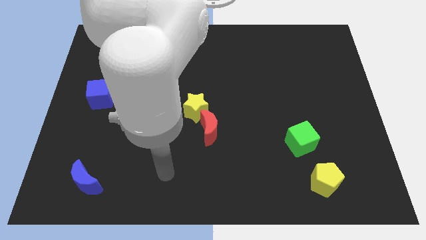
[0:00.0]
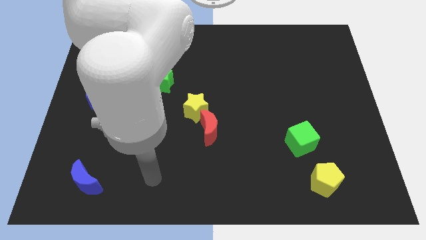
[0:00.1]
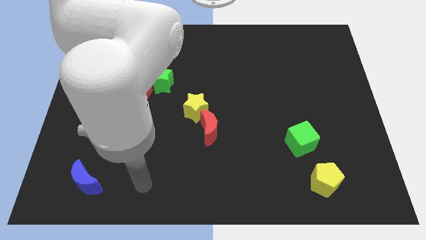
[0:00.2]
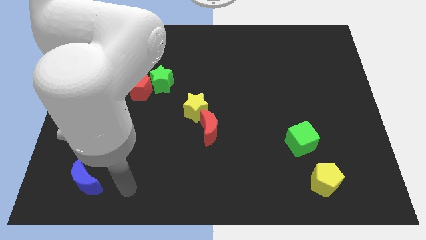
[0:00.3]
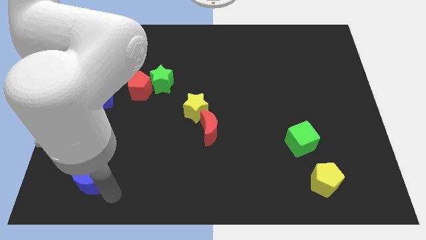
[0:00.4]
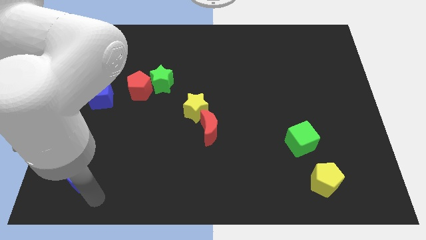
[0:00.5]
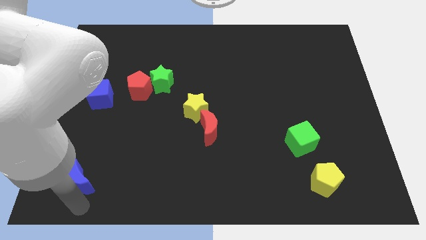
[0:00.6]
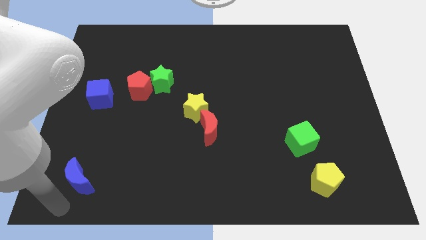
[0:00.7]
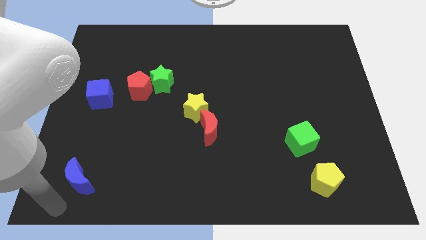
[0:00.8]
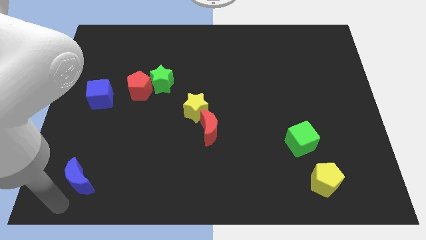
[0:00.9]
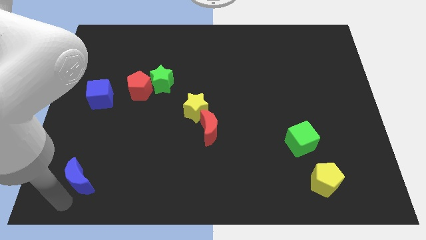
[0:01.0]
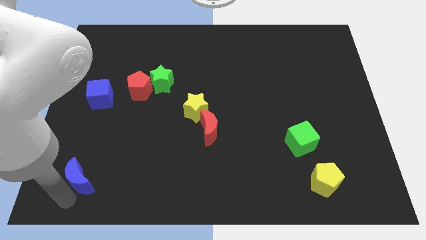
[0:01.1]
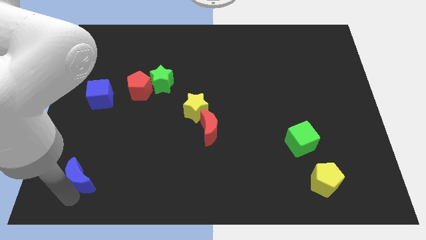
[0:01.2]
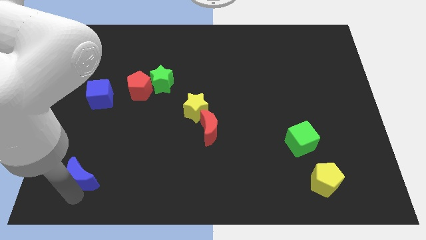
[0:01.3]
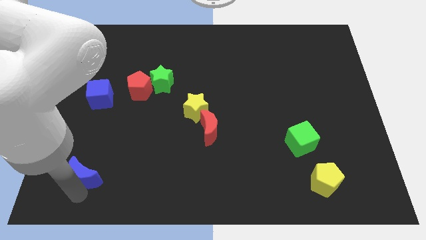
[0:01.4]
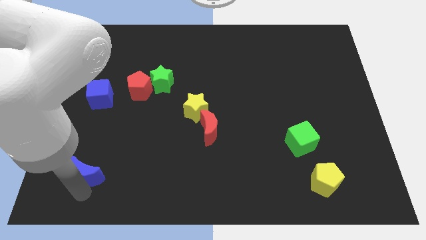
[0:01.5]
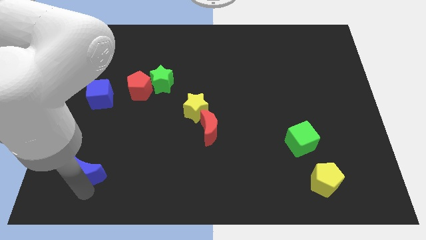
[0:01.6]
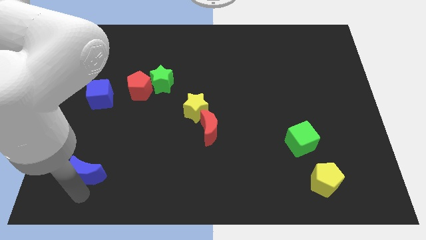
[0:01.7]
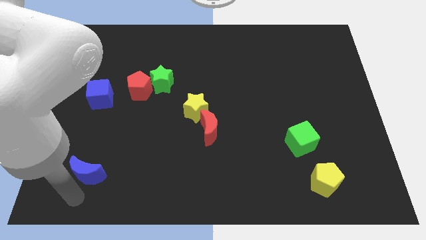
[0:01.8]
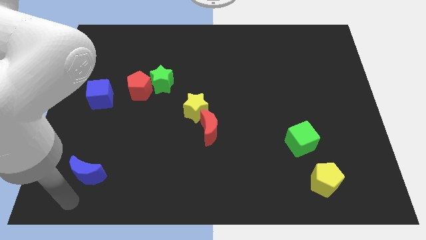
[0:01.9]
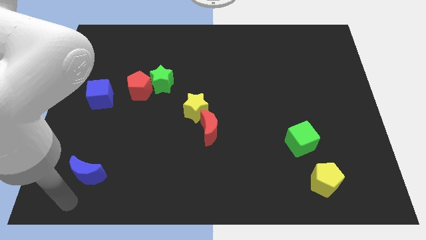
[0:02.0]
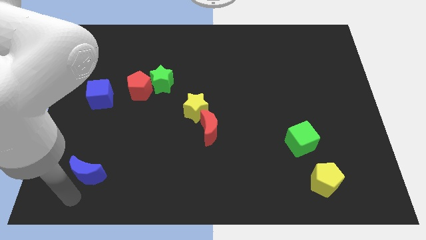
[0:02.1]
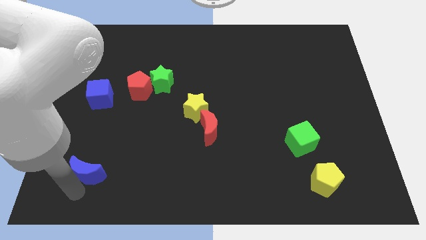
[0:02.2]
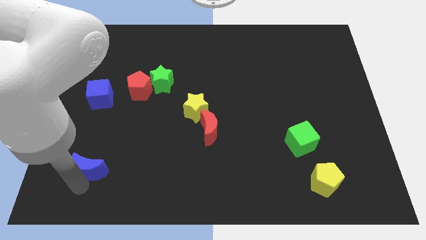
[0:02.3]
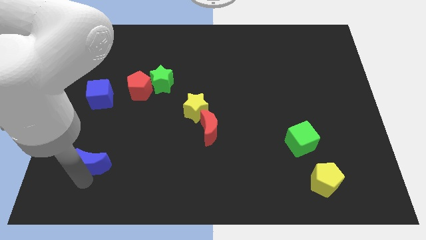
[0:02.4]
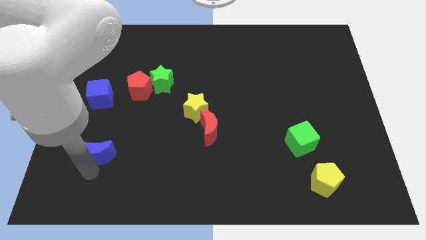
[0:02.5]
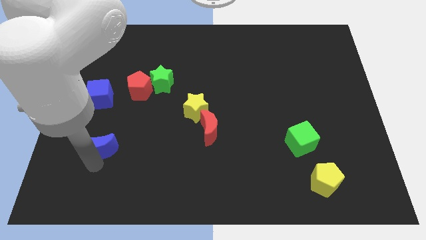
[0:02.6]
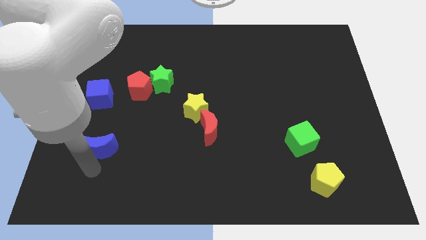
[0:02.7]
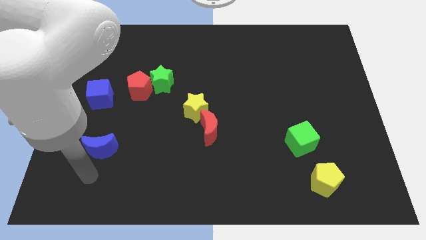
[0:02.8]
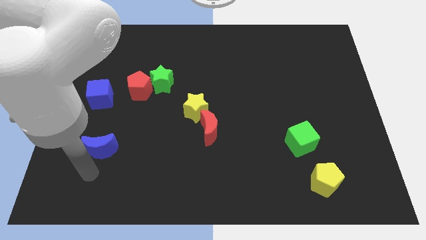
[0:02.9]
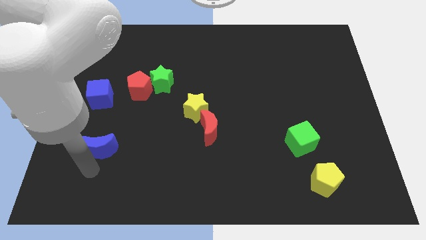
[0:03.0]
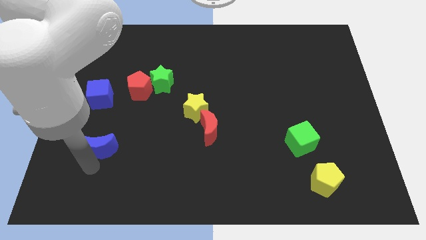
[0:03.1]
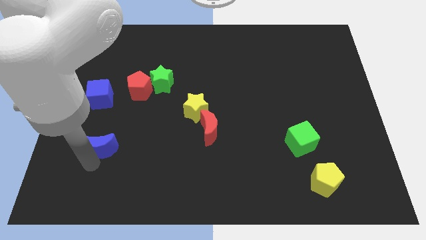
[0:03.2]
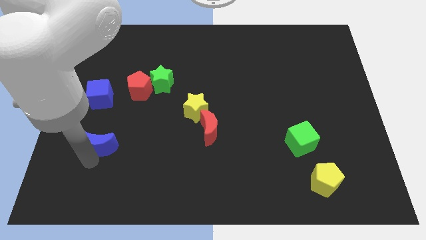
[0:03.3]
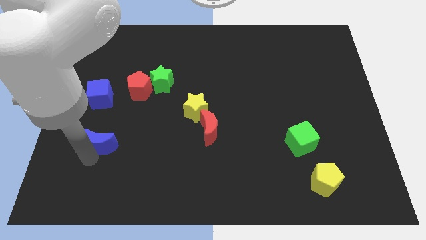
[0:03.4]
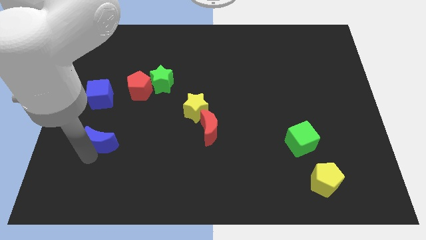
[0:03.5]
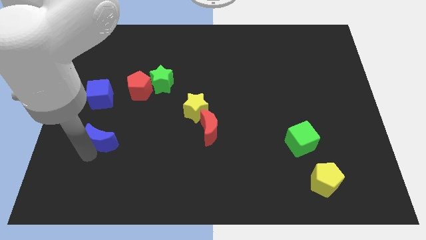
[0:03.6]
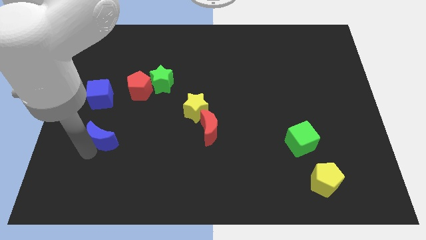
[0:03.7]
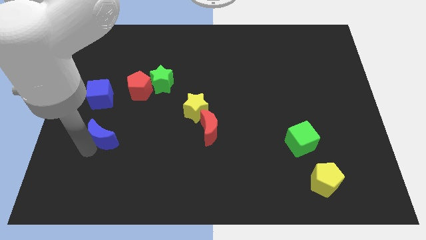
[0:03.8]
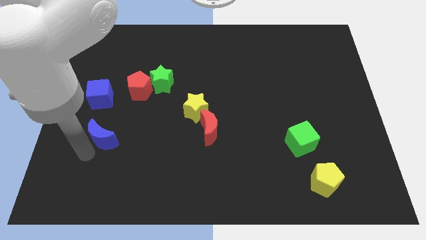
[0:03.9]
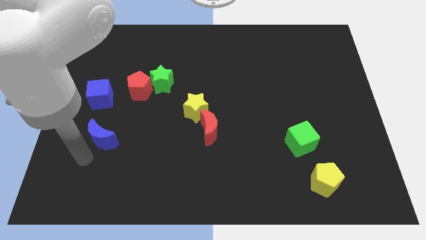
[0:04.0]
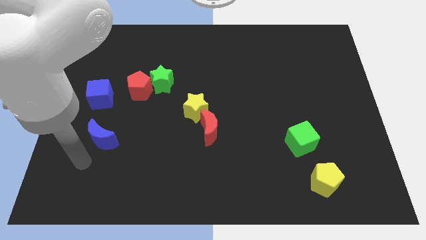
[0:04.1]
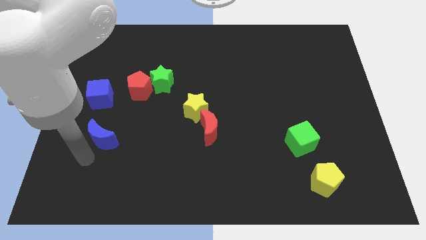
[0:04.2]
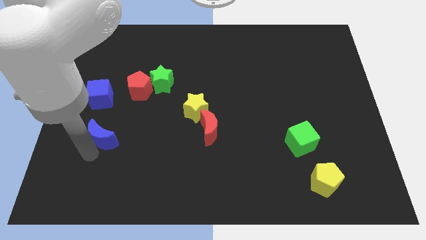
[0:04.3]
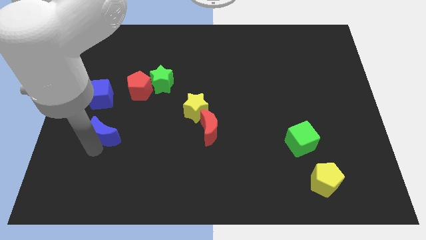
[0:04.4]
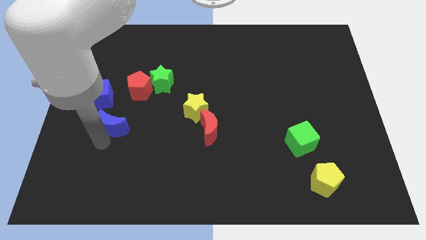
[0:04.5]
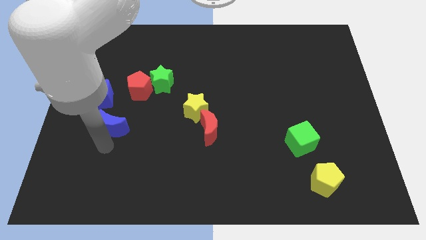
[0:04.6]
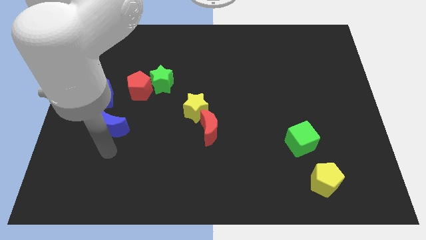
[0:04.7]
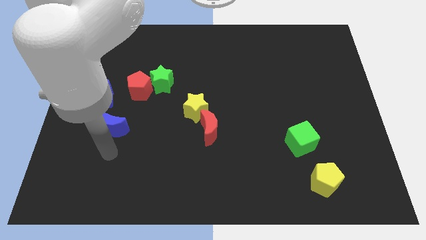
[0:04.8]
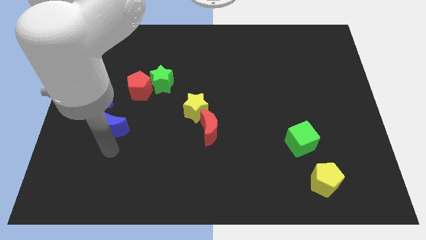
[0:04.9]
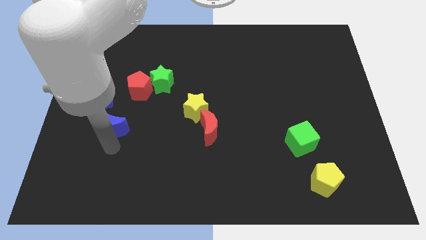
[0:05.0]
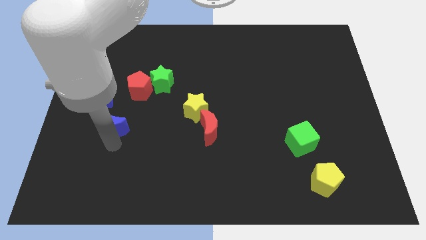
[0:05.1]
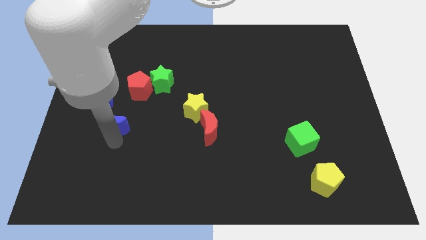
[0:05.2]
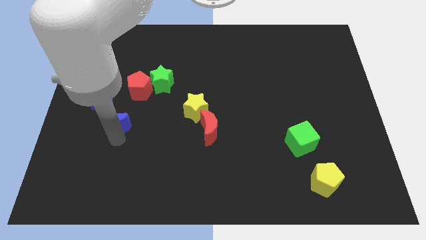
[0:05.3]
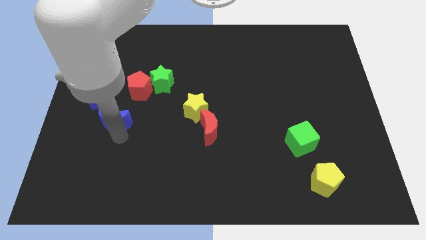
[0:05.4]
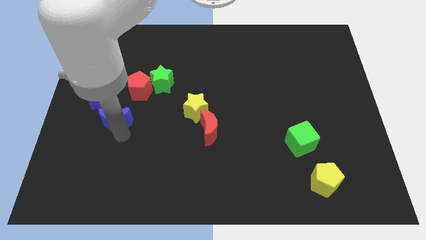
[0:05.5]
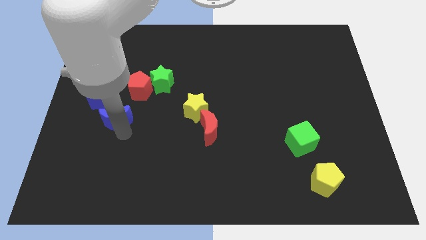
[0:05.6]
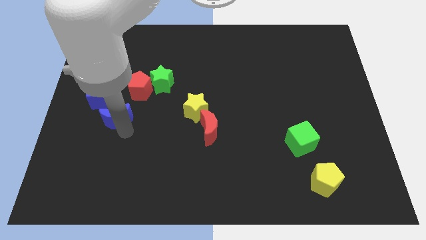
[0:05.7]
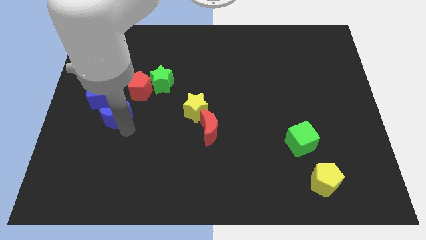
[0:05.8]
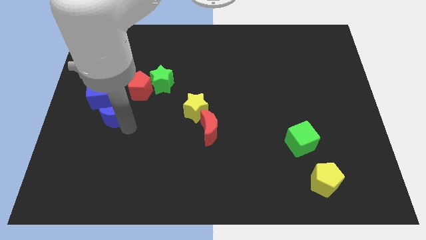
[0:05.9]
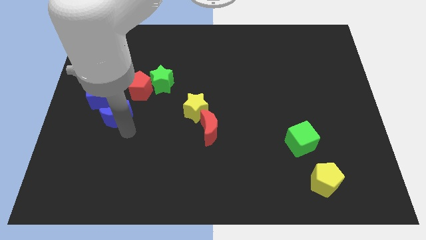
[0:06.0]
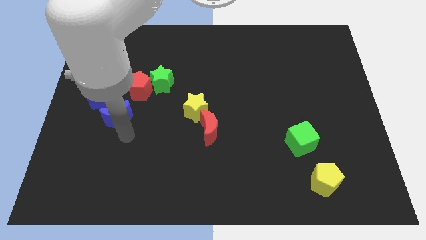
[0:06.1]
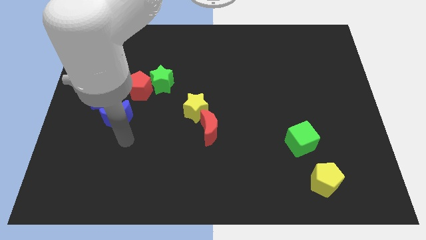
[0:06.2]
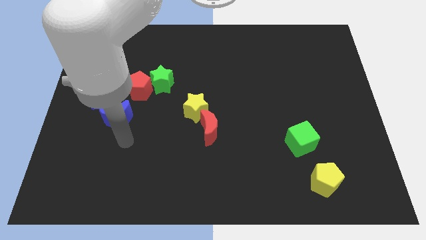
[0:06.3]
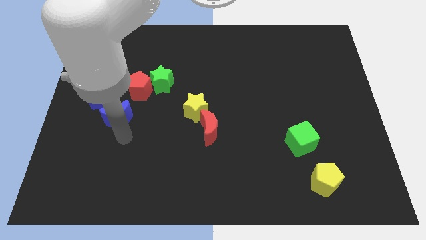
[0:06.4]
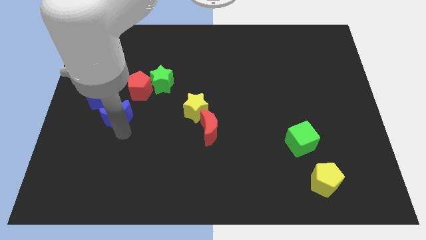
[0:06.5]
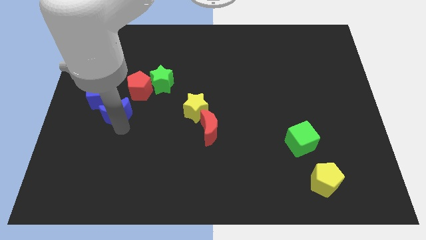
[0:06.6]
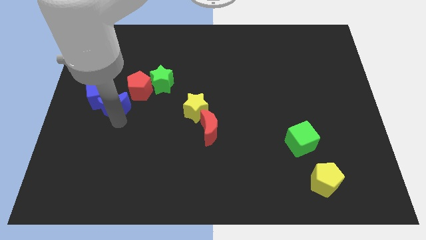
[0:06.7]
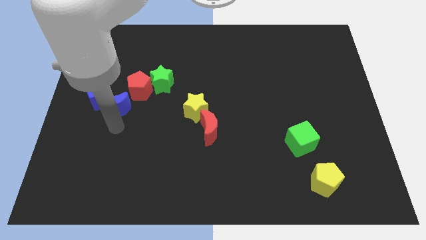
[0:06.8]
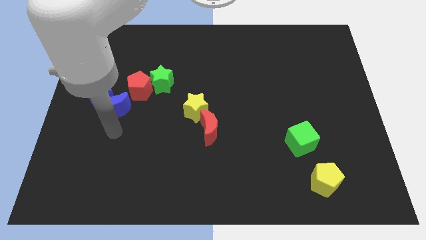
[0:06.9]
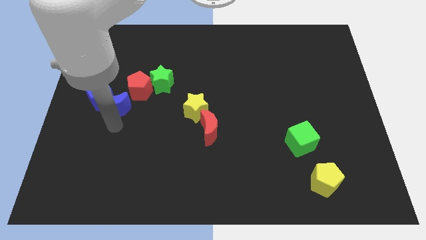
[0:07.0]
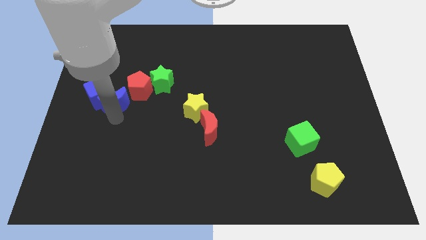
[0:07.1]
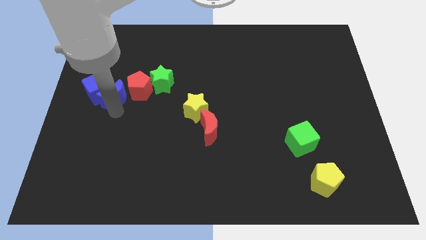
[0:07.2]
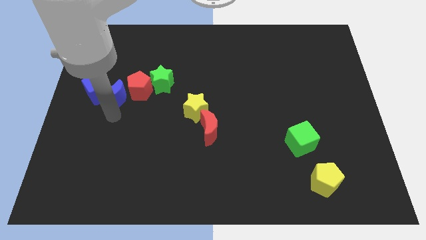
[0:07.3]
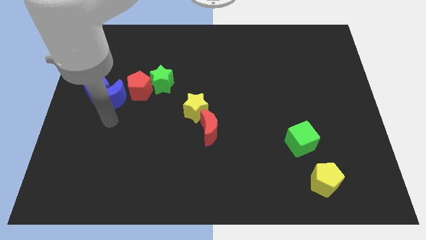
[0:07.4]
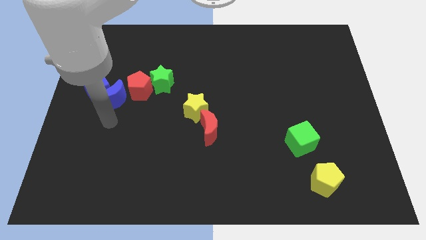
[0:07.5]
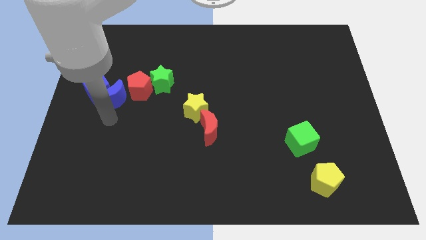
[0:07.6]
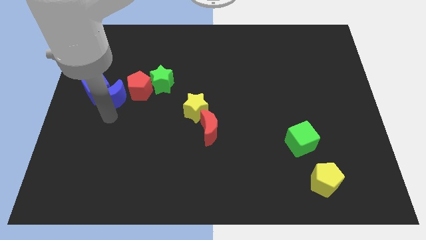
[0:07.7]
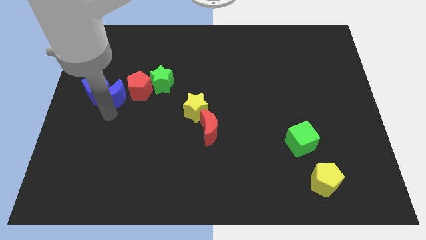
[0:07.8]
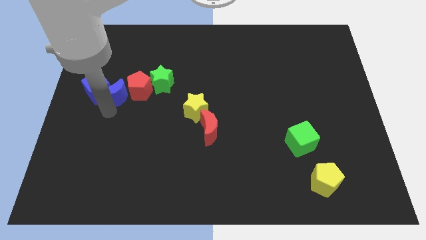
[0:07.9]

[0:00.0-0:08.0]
push the blue moon to the left side of the green star
